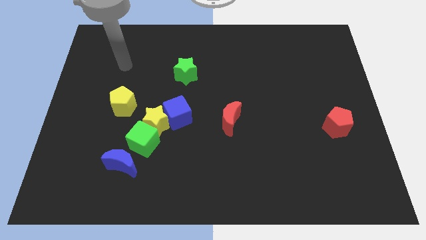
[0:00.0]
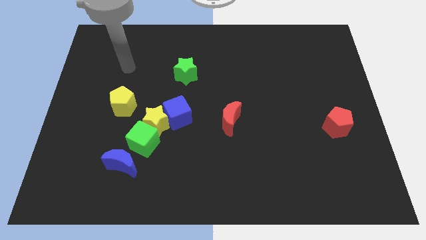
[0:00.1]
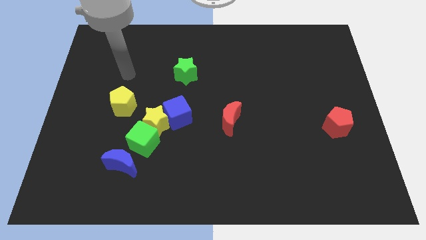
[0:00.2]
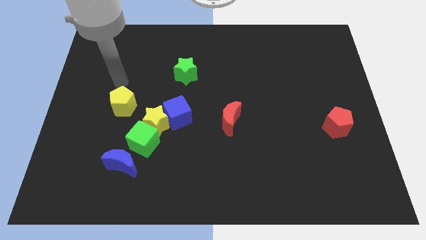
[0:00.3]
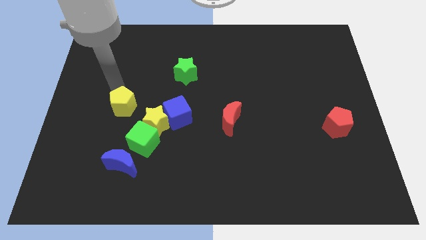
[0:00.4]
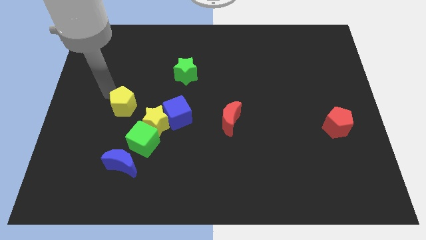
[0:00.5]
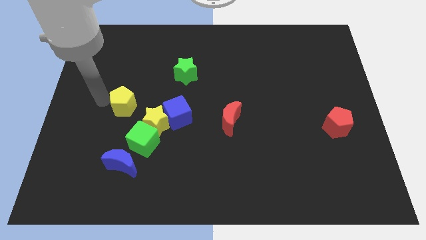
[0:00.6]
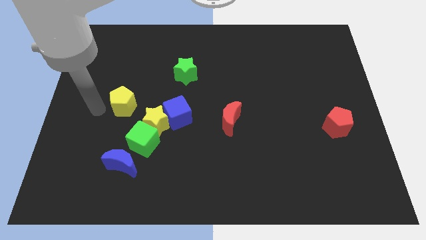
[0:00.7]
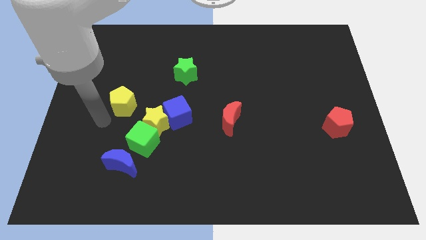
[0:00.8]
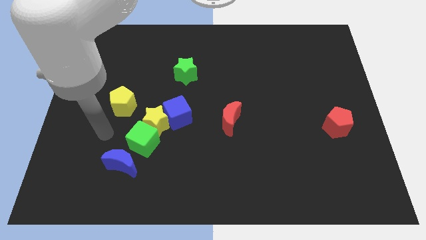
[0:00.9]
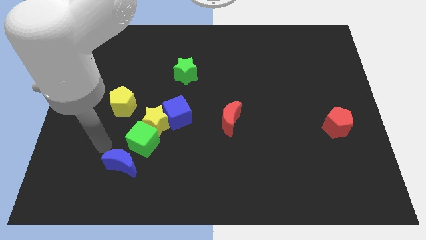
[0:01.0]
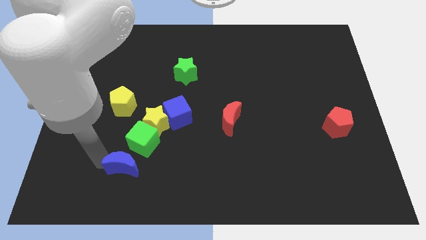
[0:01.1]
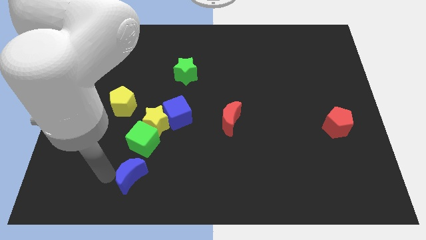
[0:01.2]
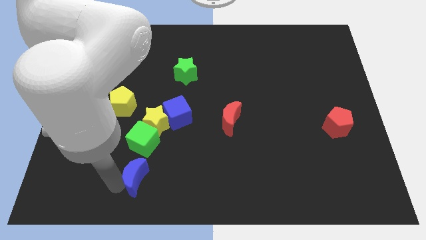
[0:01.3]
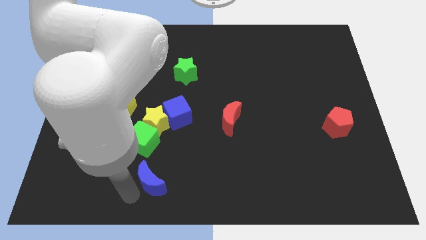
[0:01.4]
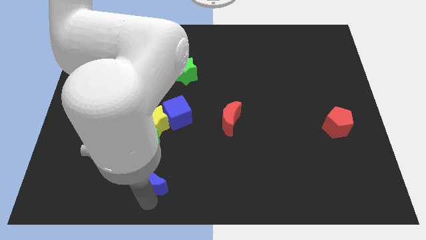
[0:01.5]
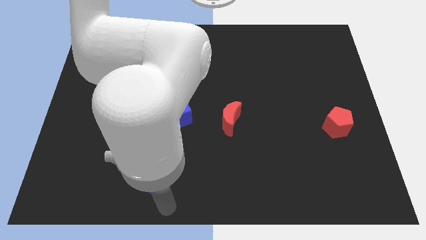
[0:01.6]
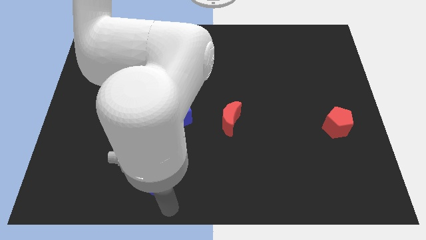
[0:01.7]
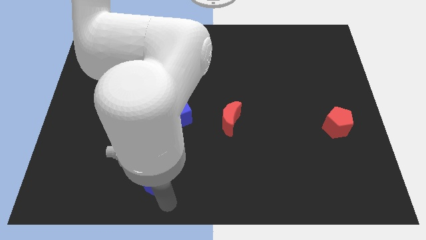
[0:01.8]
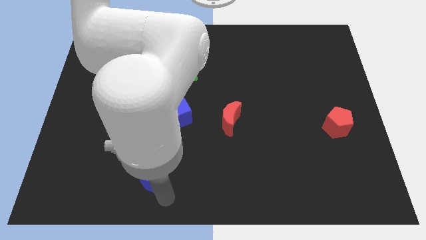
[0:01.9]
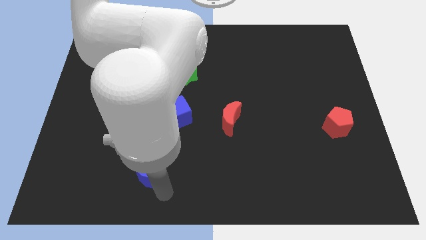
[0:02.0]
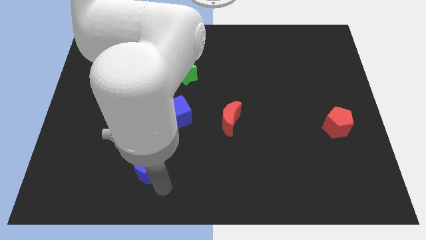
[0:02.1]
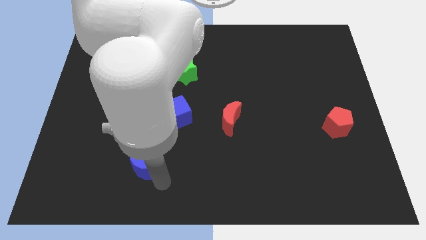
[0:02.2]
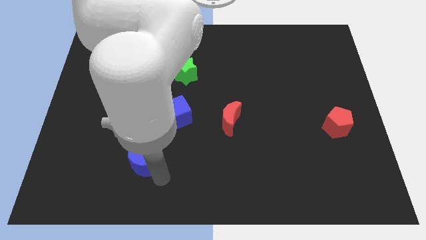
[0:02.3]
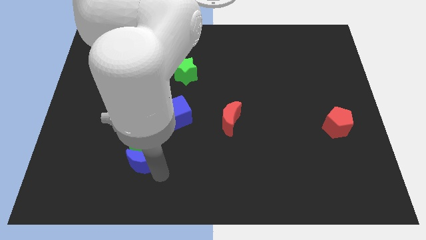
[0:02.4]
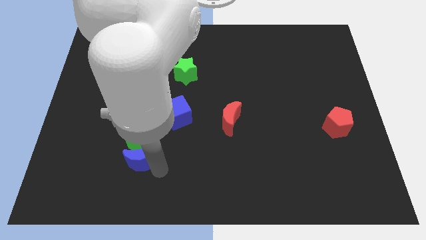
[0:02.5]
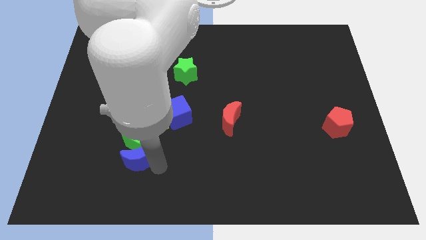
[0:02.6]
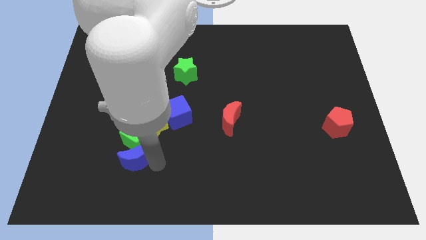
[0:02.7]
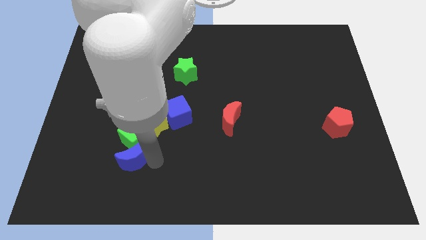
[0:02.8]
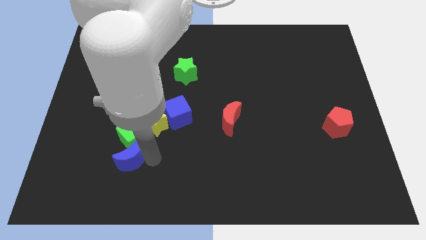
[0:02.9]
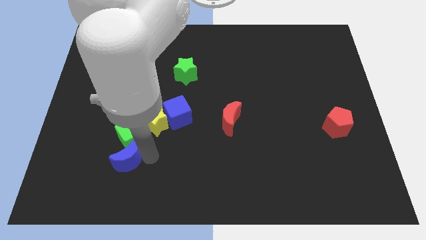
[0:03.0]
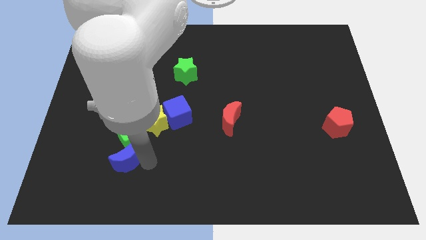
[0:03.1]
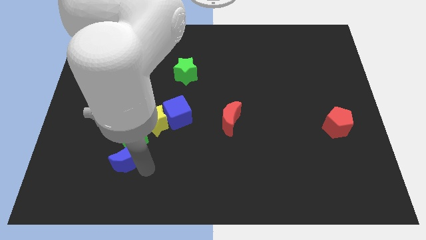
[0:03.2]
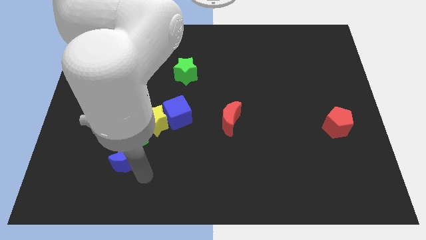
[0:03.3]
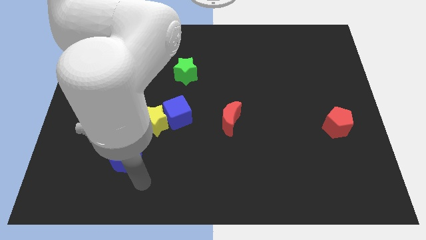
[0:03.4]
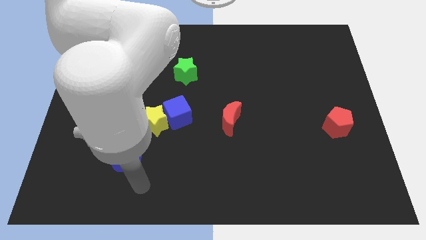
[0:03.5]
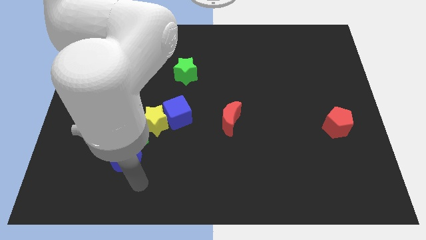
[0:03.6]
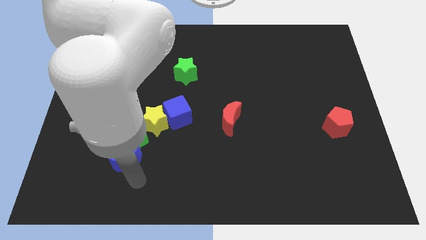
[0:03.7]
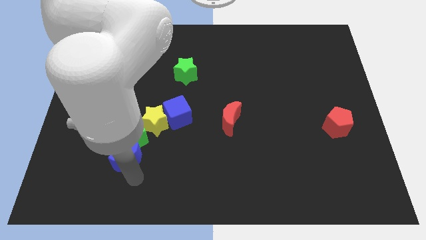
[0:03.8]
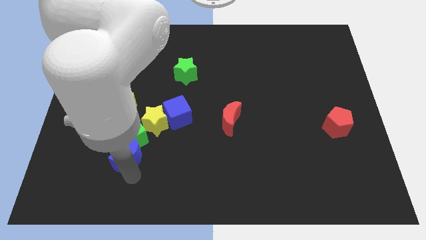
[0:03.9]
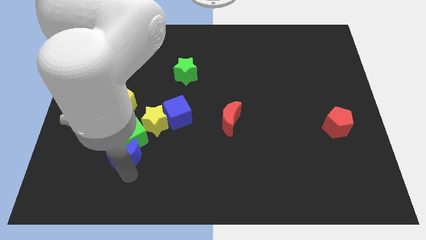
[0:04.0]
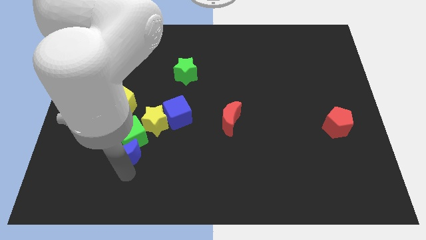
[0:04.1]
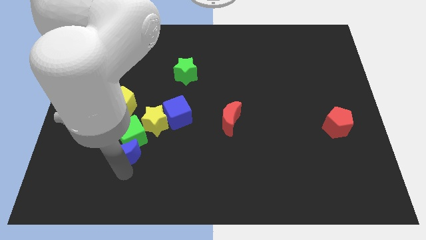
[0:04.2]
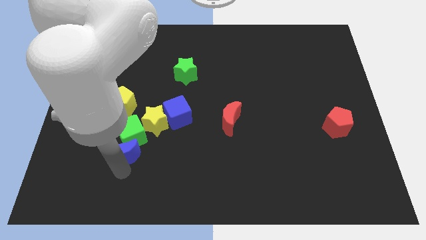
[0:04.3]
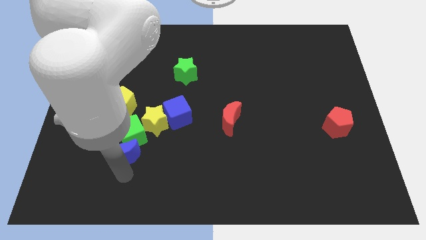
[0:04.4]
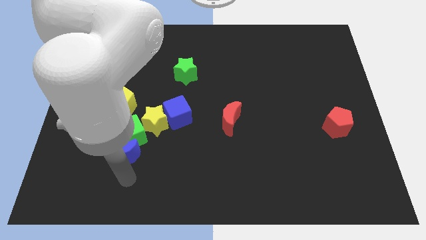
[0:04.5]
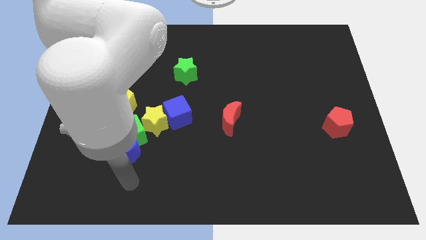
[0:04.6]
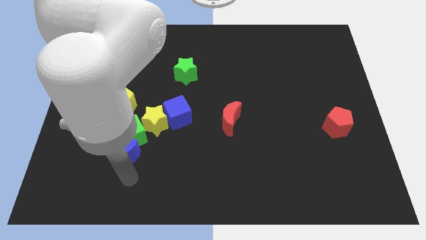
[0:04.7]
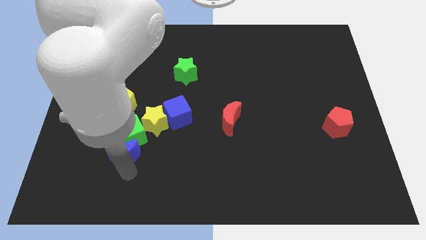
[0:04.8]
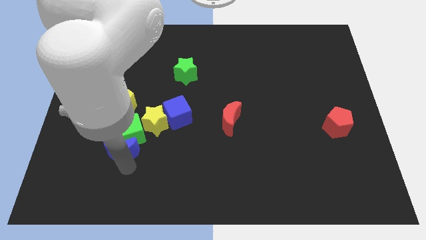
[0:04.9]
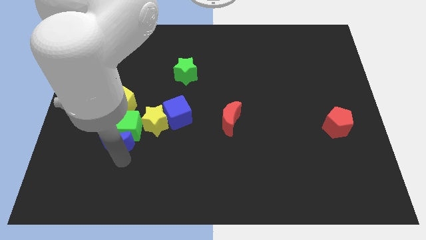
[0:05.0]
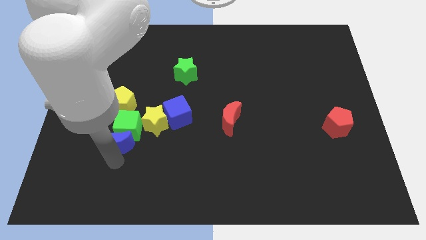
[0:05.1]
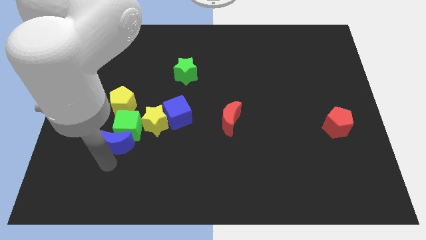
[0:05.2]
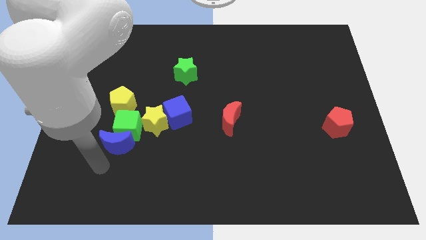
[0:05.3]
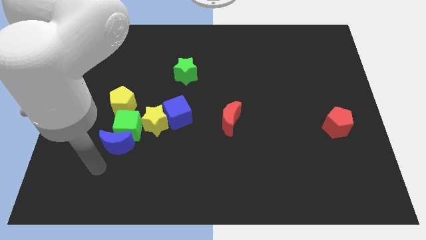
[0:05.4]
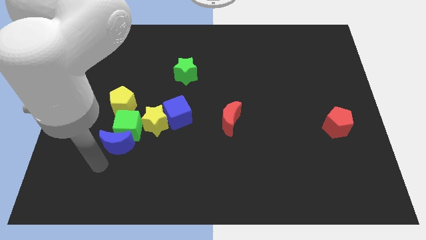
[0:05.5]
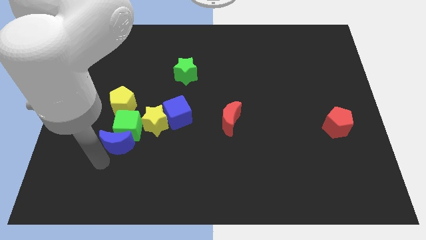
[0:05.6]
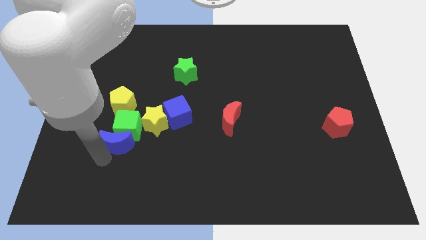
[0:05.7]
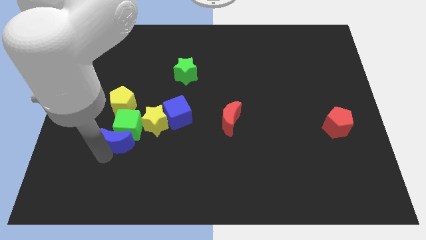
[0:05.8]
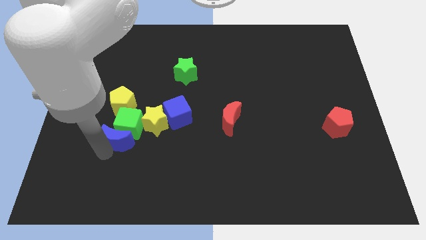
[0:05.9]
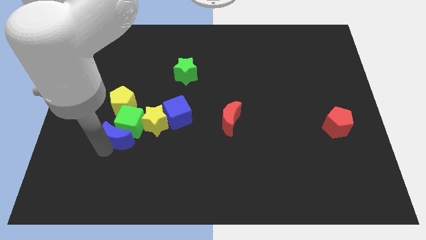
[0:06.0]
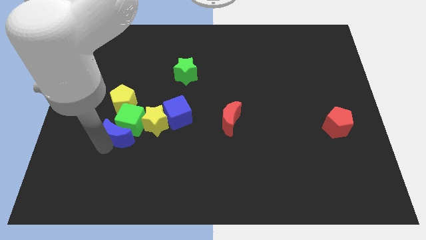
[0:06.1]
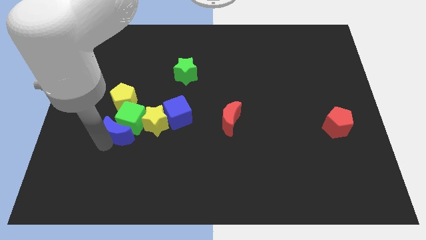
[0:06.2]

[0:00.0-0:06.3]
move the blue moon a bit upwards

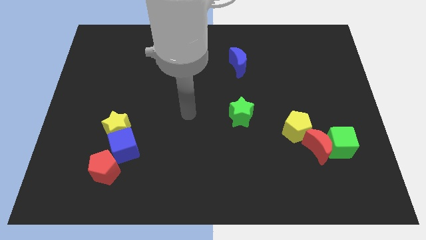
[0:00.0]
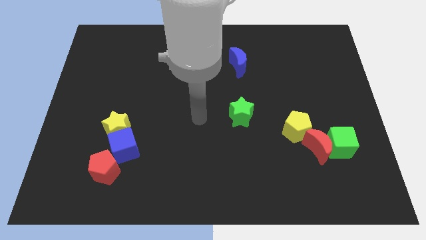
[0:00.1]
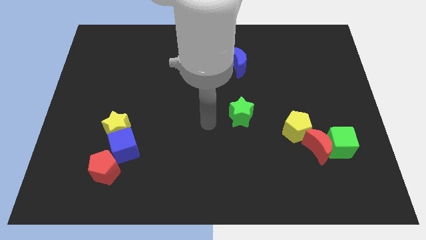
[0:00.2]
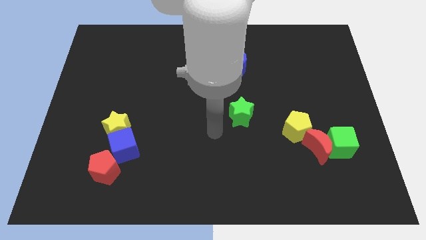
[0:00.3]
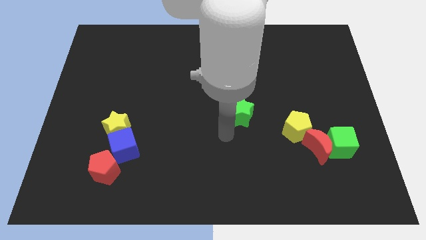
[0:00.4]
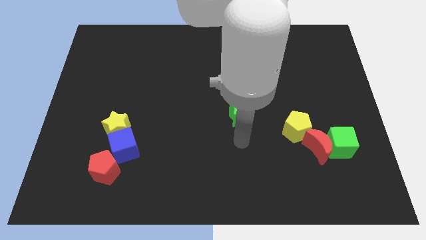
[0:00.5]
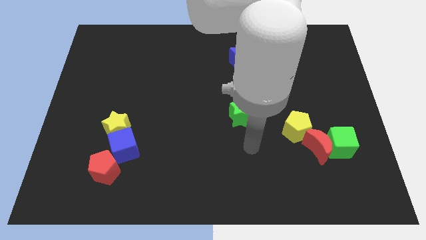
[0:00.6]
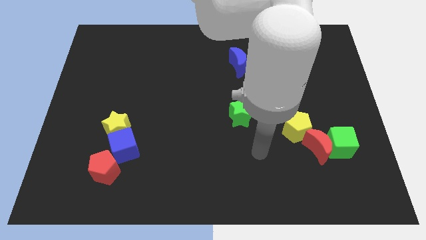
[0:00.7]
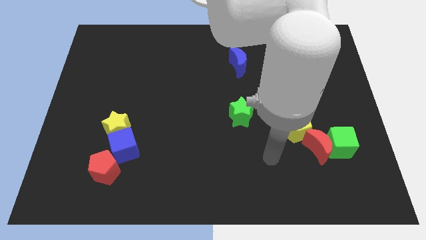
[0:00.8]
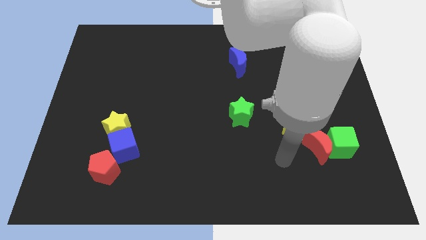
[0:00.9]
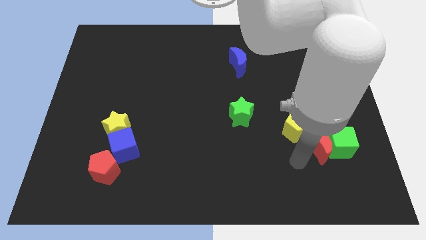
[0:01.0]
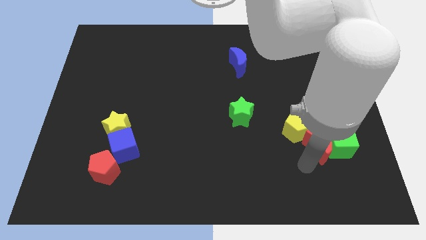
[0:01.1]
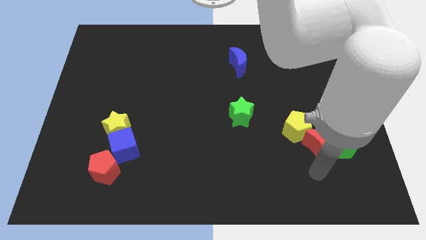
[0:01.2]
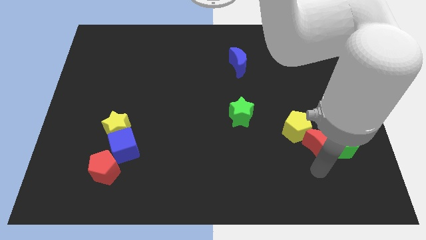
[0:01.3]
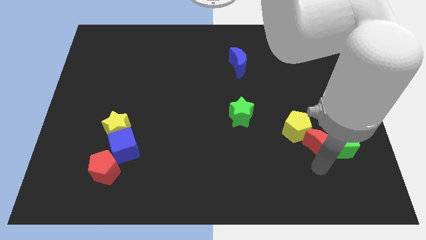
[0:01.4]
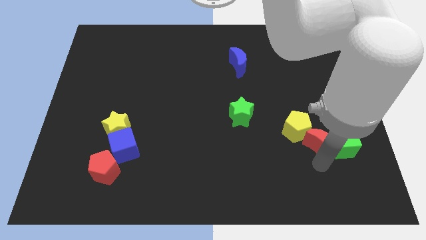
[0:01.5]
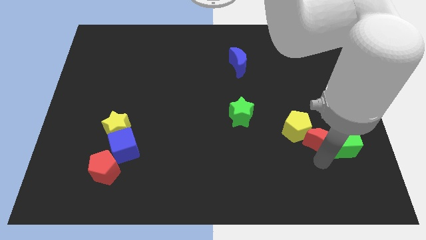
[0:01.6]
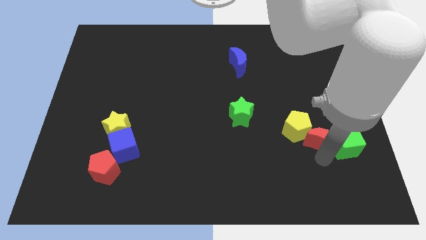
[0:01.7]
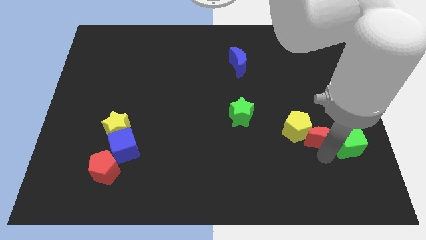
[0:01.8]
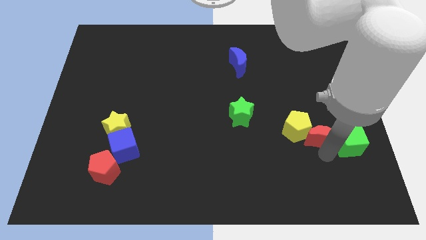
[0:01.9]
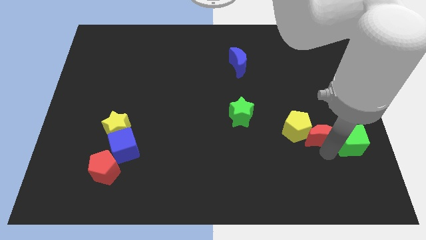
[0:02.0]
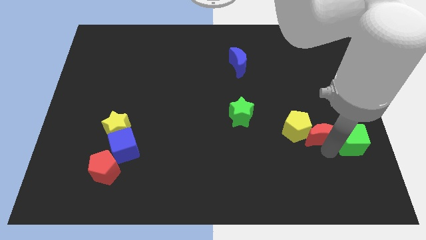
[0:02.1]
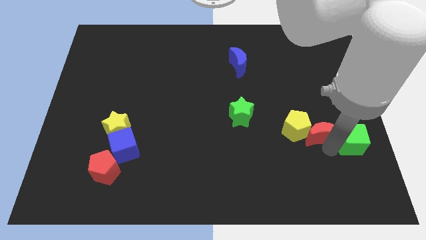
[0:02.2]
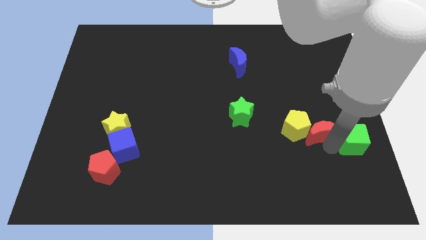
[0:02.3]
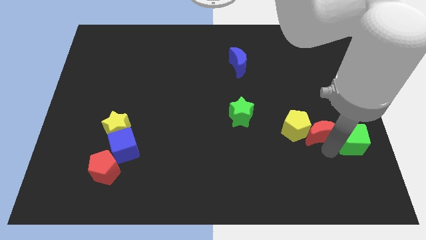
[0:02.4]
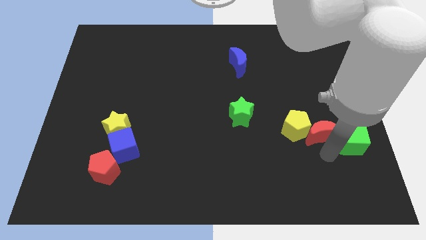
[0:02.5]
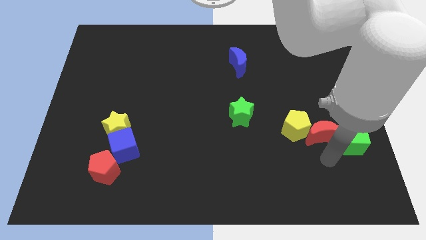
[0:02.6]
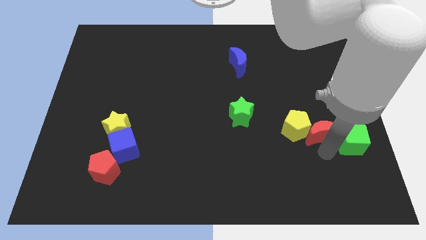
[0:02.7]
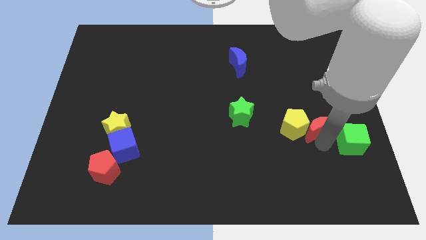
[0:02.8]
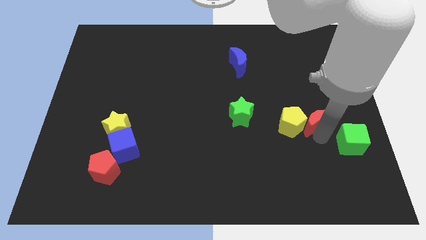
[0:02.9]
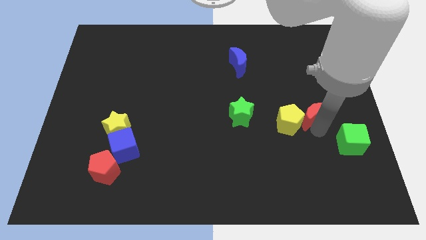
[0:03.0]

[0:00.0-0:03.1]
slide the red moon a bit upwards
